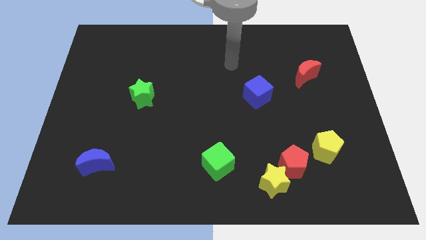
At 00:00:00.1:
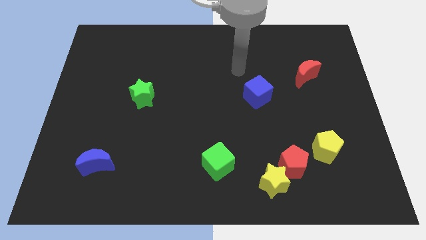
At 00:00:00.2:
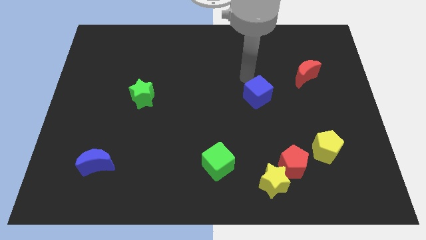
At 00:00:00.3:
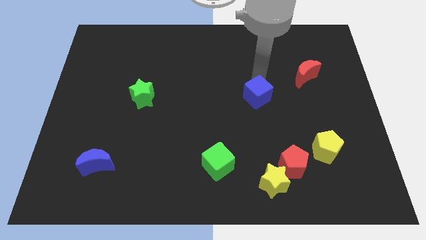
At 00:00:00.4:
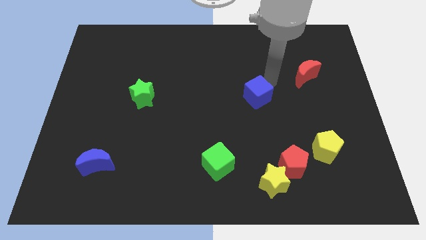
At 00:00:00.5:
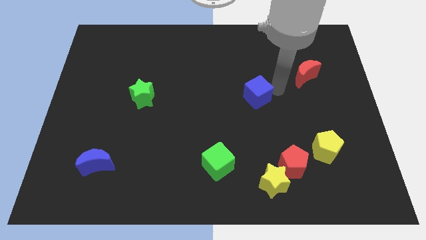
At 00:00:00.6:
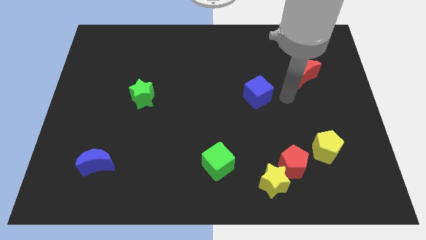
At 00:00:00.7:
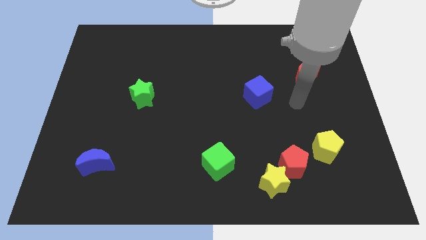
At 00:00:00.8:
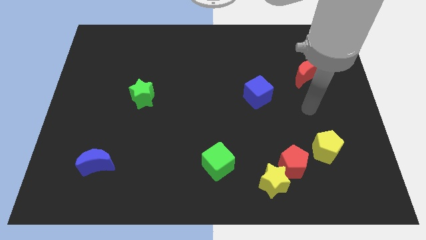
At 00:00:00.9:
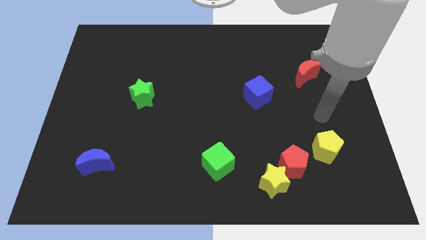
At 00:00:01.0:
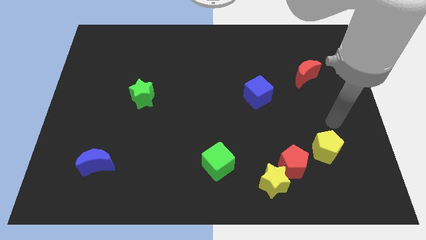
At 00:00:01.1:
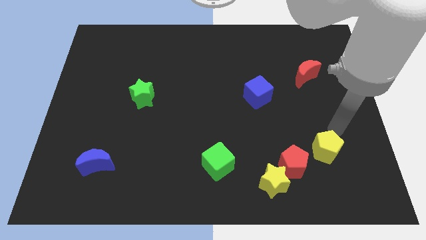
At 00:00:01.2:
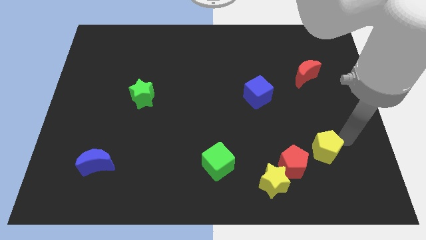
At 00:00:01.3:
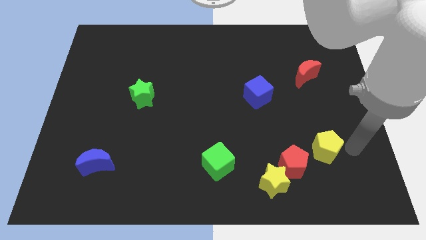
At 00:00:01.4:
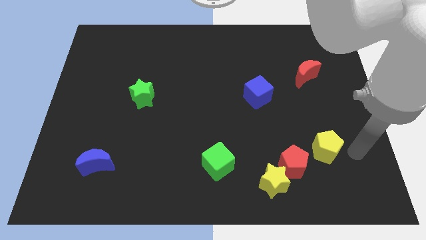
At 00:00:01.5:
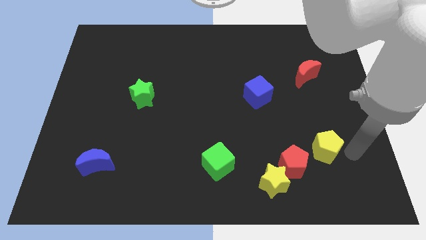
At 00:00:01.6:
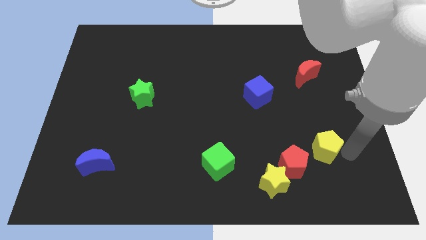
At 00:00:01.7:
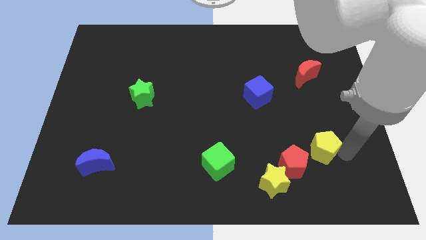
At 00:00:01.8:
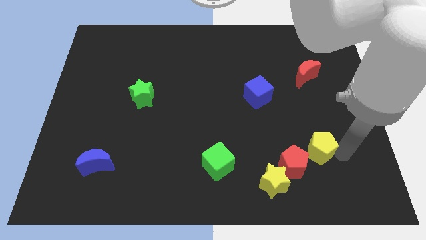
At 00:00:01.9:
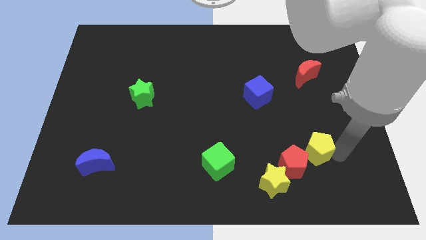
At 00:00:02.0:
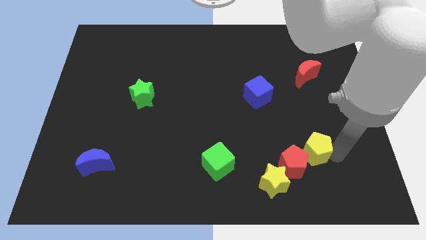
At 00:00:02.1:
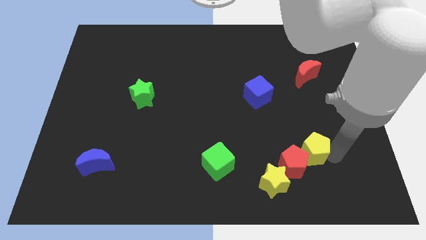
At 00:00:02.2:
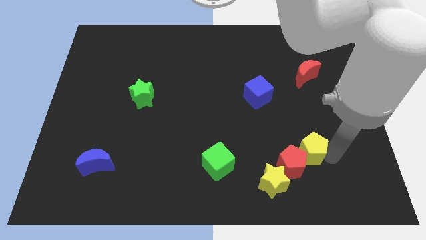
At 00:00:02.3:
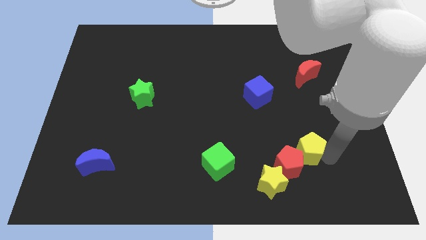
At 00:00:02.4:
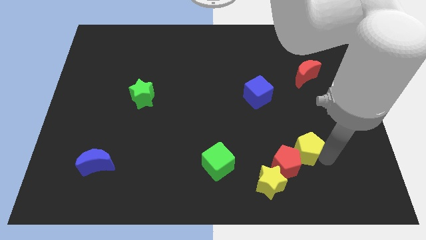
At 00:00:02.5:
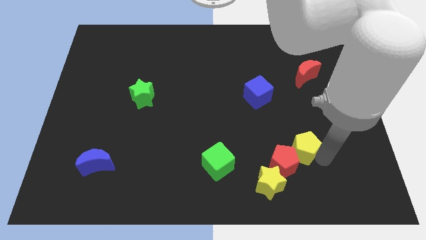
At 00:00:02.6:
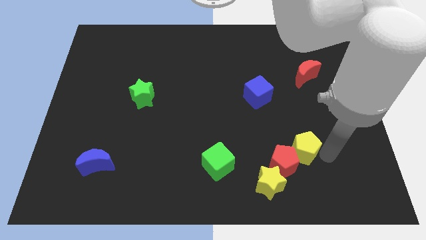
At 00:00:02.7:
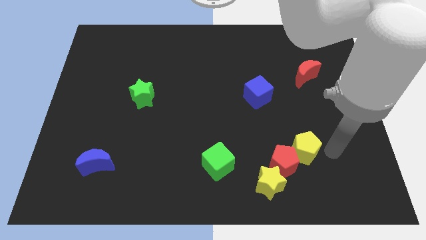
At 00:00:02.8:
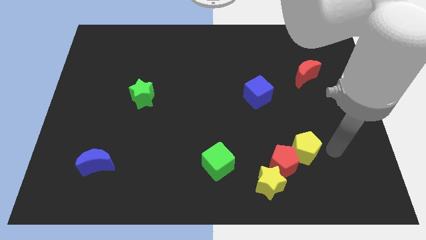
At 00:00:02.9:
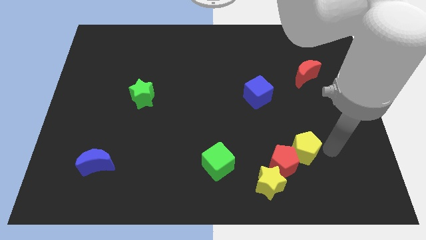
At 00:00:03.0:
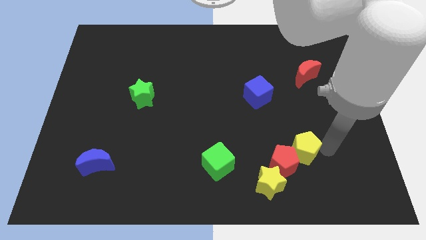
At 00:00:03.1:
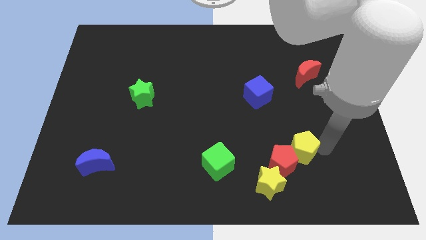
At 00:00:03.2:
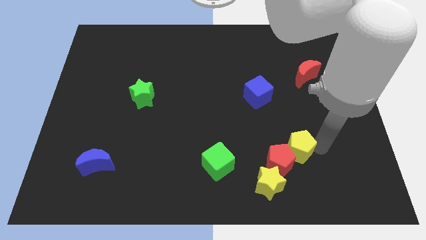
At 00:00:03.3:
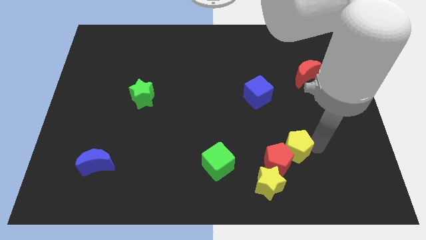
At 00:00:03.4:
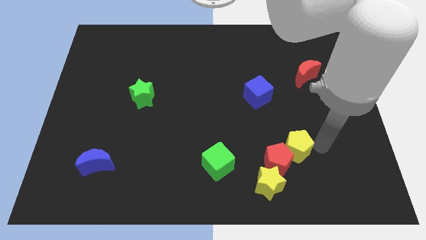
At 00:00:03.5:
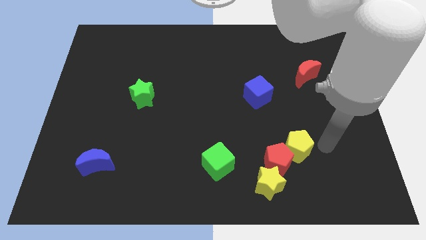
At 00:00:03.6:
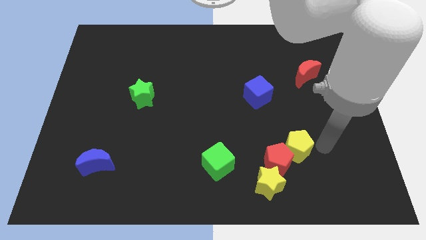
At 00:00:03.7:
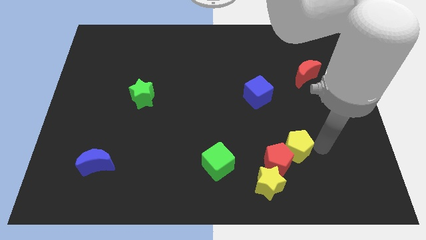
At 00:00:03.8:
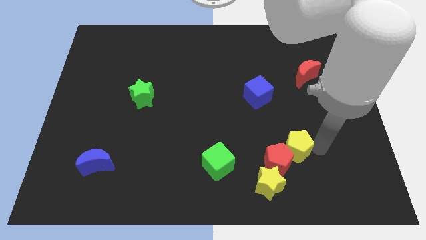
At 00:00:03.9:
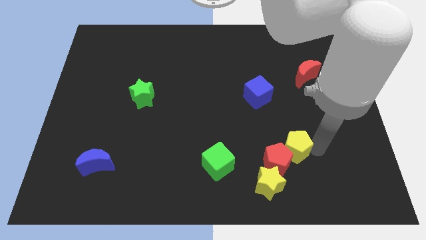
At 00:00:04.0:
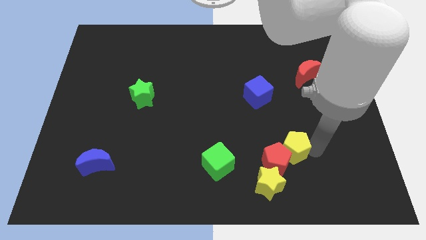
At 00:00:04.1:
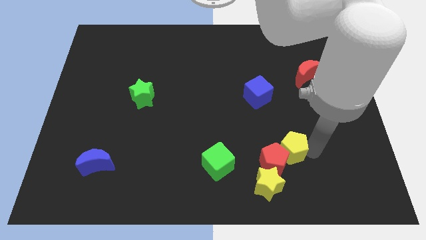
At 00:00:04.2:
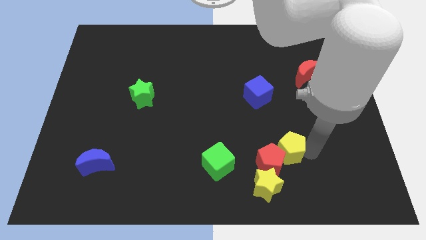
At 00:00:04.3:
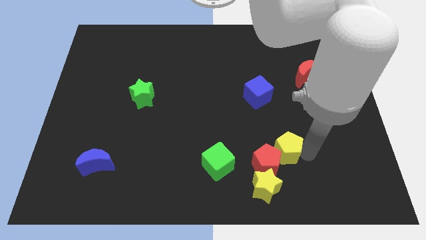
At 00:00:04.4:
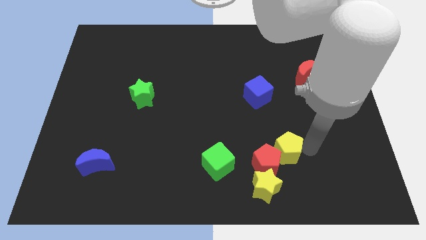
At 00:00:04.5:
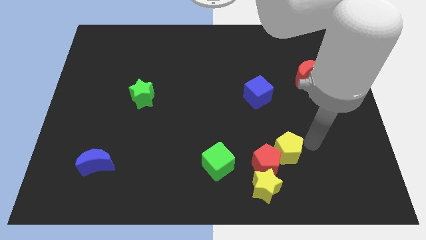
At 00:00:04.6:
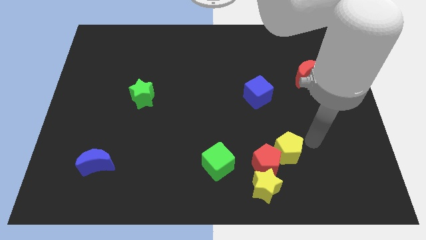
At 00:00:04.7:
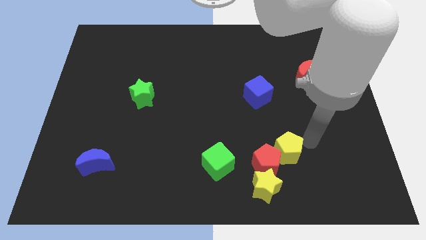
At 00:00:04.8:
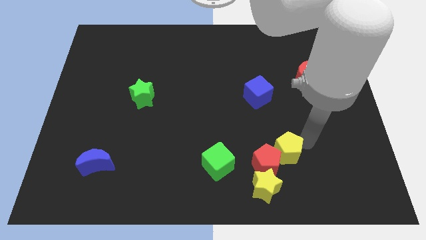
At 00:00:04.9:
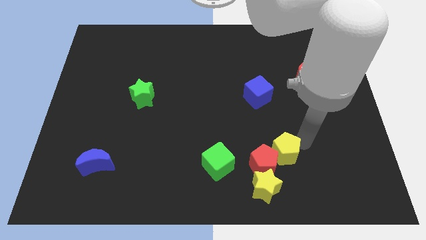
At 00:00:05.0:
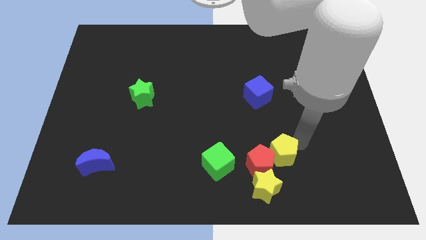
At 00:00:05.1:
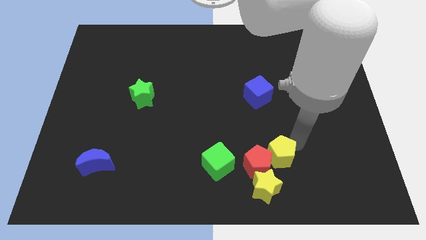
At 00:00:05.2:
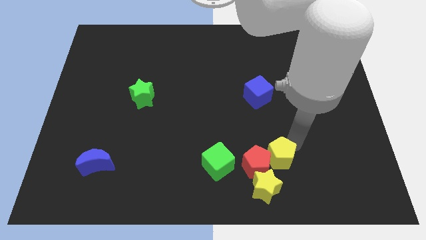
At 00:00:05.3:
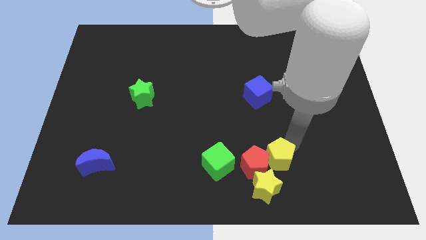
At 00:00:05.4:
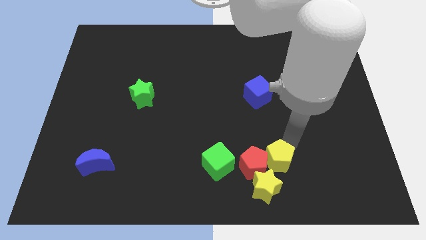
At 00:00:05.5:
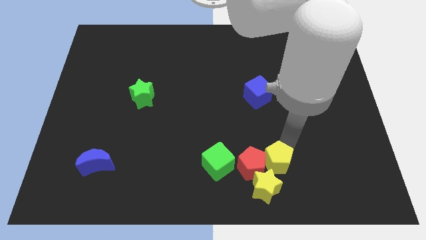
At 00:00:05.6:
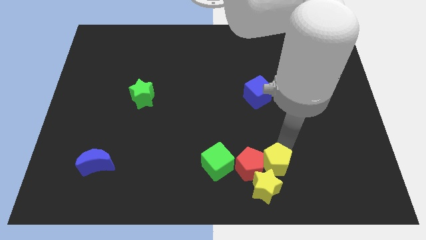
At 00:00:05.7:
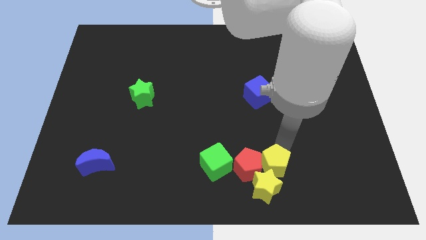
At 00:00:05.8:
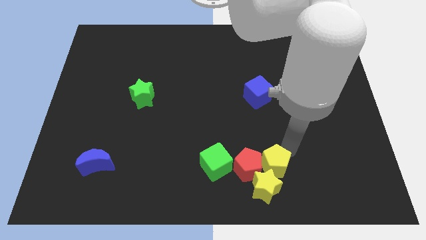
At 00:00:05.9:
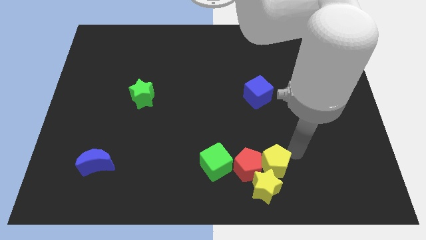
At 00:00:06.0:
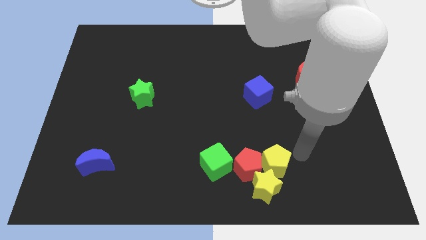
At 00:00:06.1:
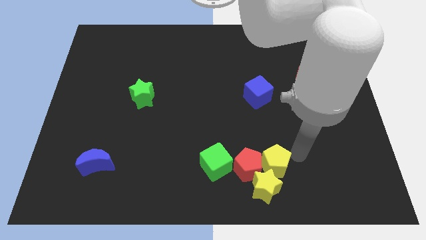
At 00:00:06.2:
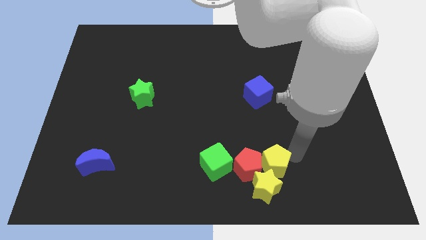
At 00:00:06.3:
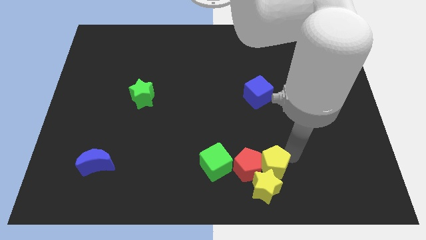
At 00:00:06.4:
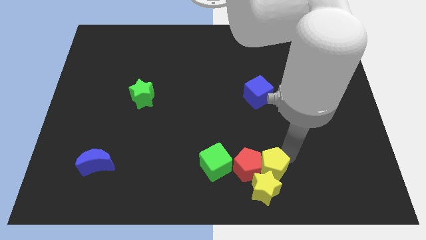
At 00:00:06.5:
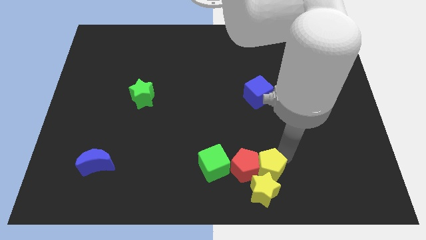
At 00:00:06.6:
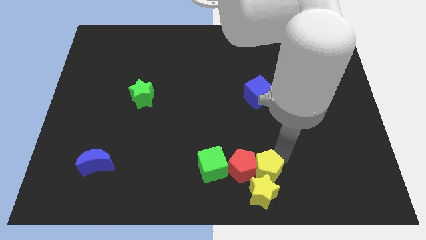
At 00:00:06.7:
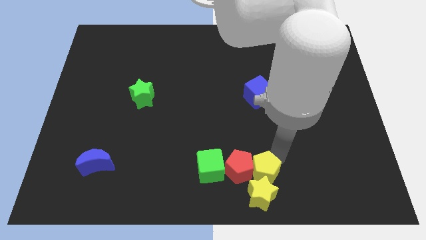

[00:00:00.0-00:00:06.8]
push the yellow pentagon to the bottom side
